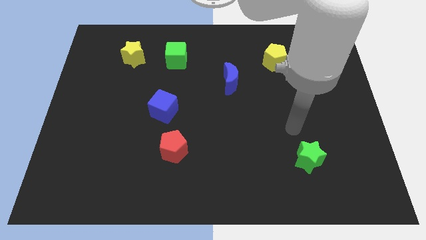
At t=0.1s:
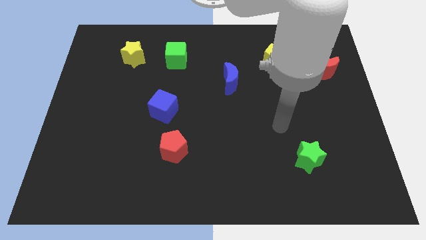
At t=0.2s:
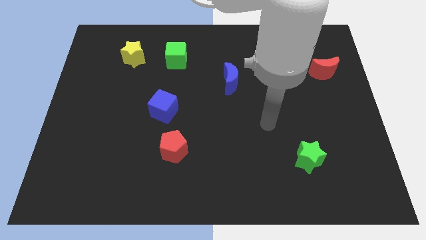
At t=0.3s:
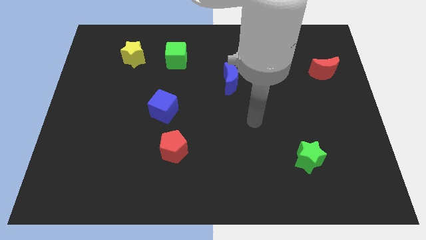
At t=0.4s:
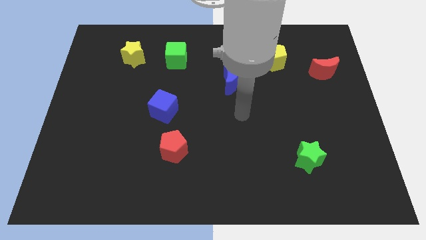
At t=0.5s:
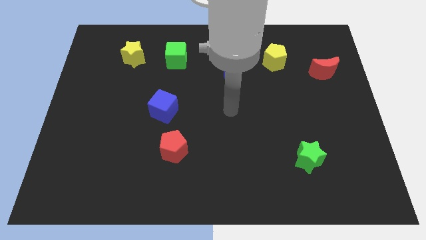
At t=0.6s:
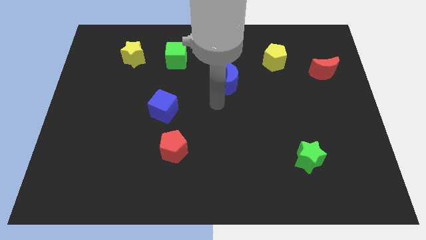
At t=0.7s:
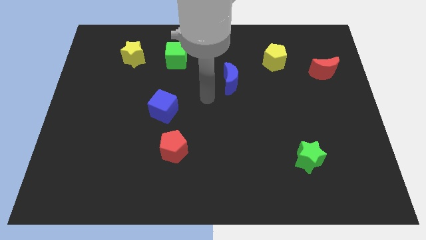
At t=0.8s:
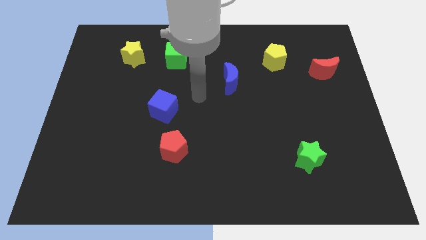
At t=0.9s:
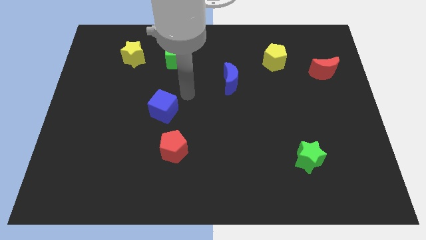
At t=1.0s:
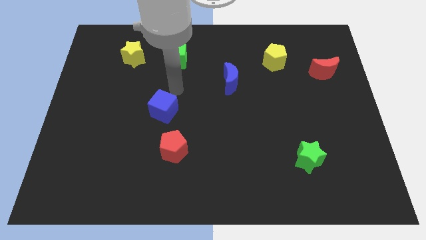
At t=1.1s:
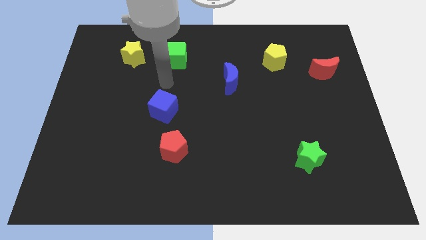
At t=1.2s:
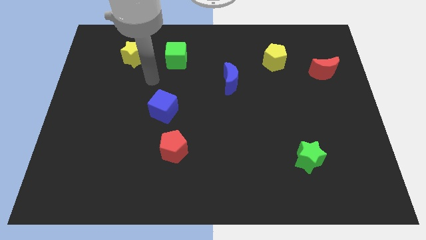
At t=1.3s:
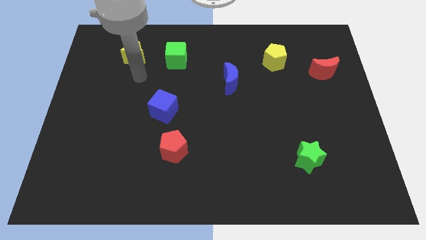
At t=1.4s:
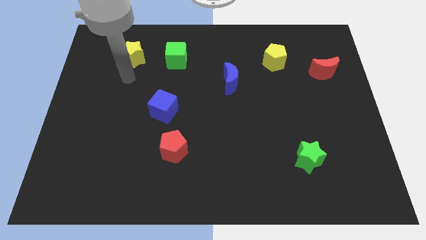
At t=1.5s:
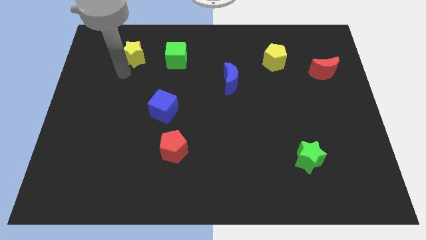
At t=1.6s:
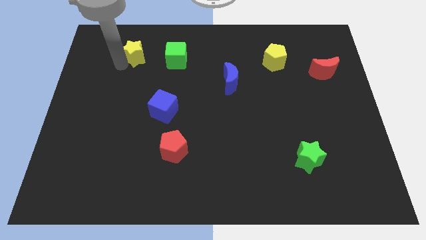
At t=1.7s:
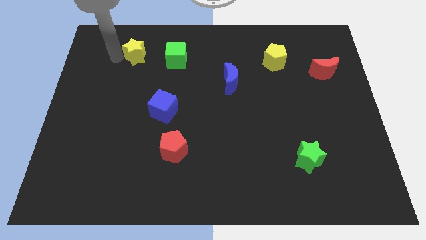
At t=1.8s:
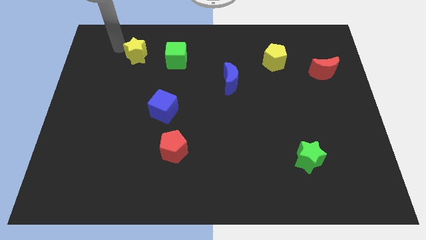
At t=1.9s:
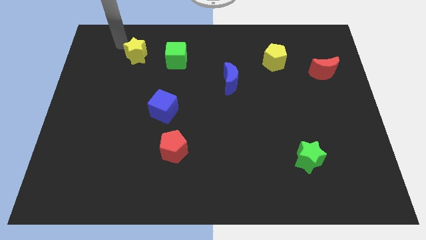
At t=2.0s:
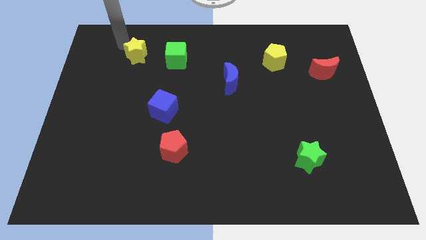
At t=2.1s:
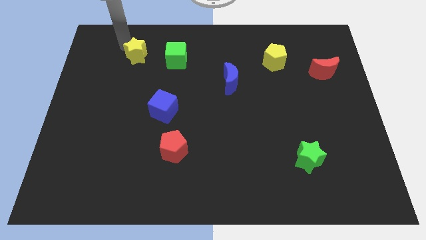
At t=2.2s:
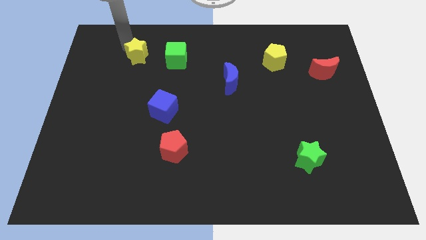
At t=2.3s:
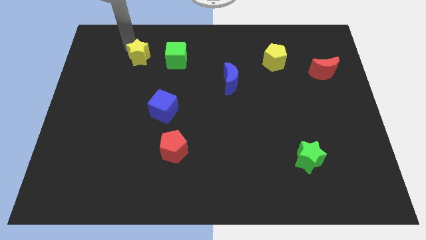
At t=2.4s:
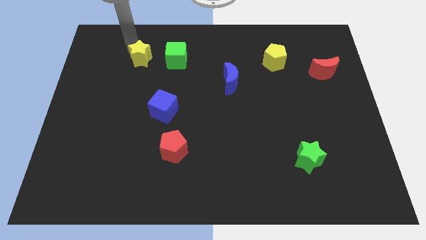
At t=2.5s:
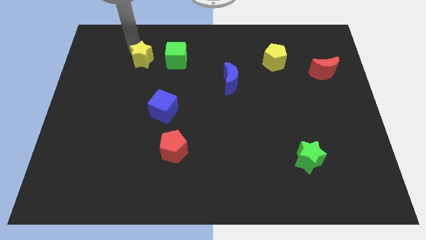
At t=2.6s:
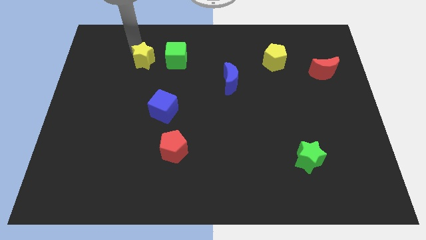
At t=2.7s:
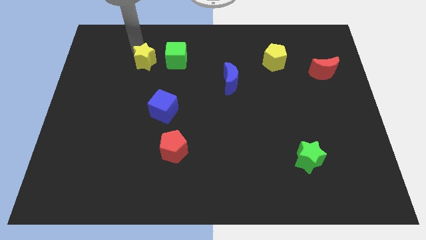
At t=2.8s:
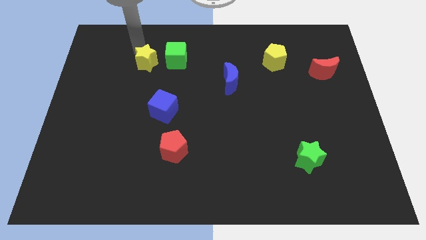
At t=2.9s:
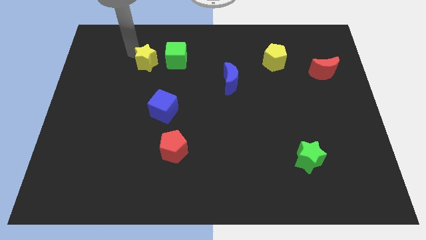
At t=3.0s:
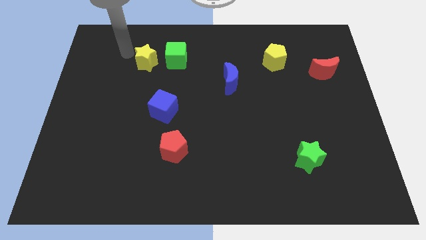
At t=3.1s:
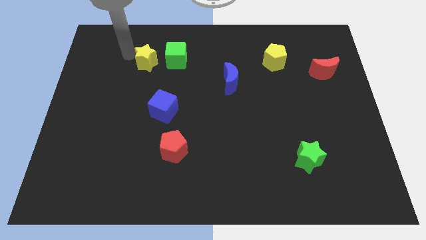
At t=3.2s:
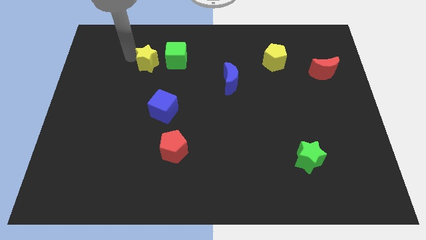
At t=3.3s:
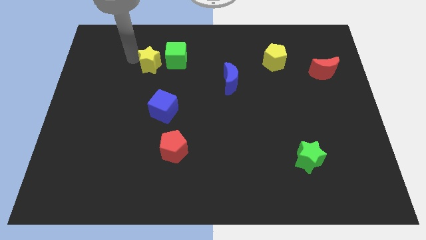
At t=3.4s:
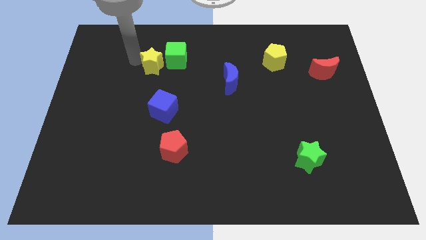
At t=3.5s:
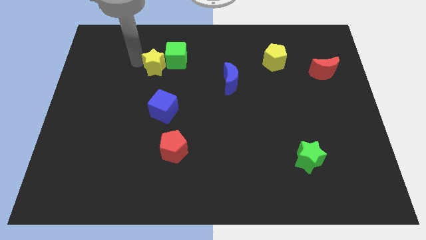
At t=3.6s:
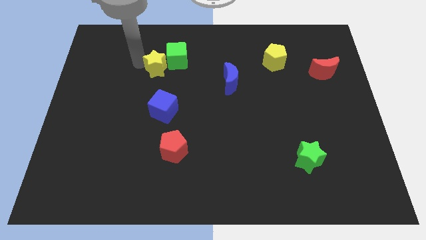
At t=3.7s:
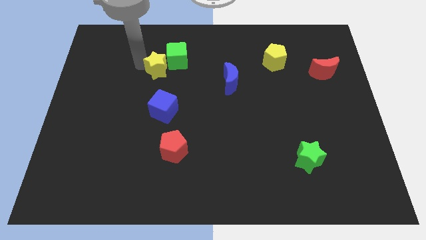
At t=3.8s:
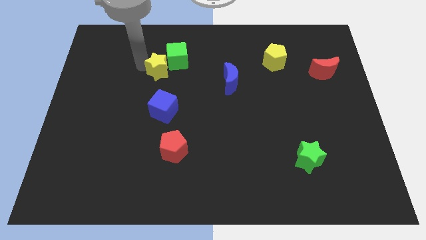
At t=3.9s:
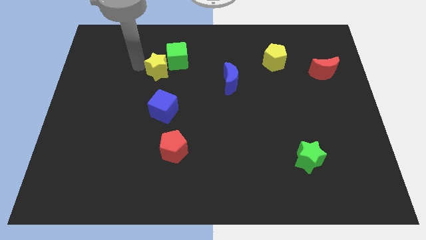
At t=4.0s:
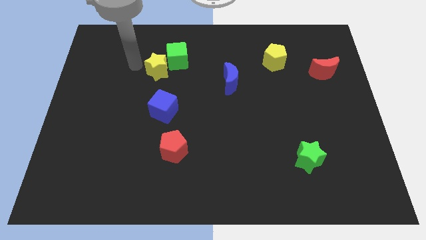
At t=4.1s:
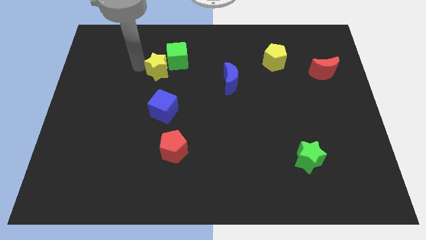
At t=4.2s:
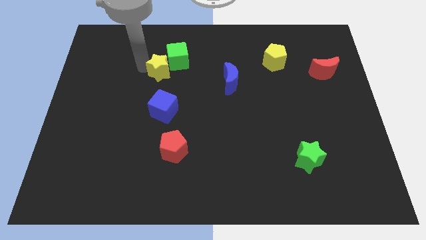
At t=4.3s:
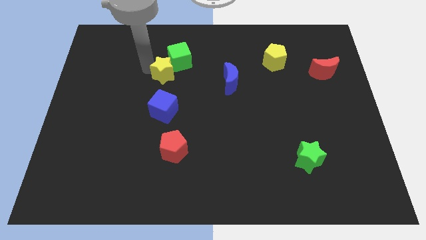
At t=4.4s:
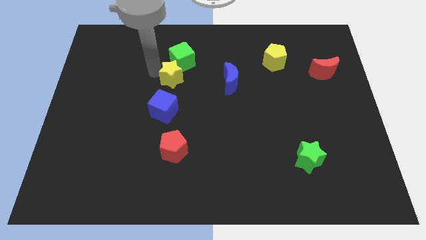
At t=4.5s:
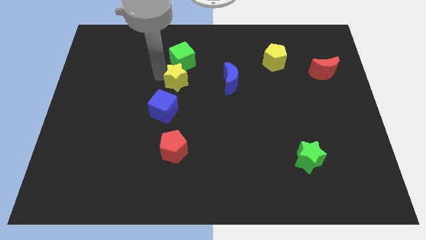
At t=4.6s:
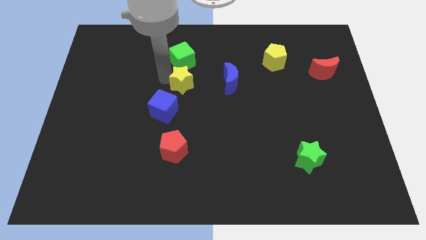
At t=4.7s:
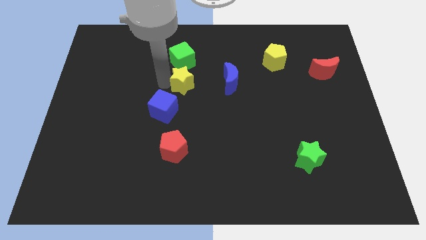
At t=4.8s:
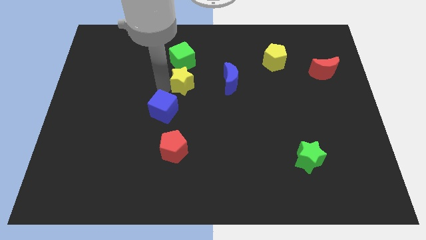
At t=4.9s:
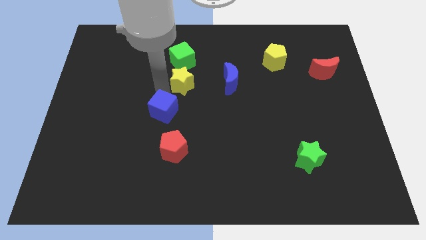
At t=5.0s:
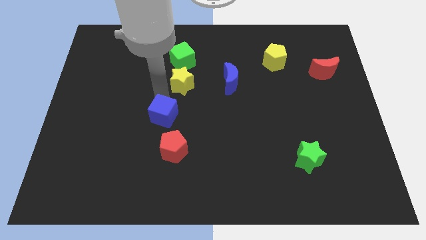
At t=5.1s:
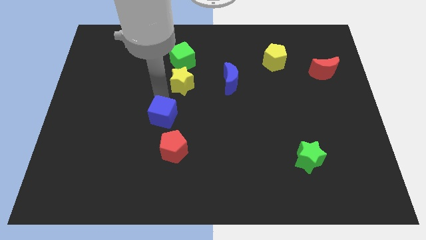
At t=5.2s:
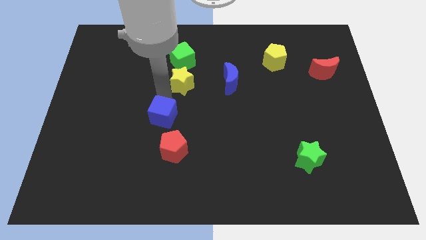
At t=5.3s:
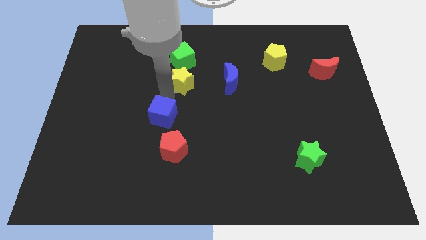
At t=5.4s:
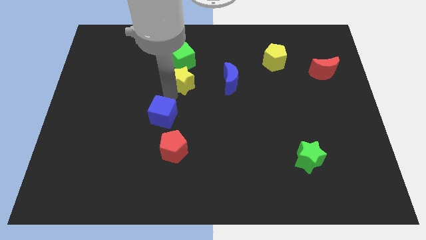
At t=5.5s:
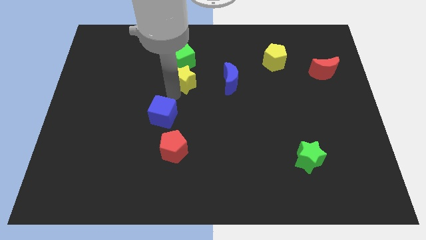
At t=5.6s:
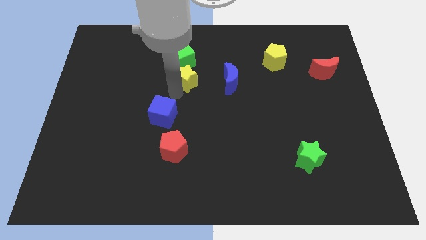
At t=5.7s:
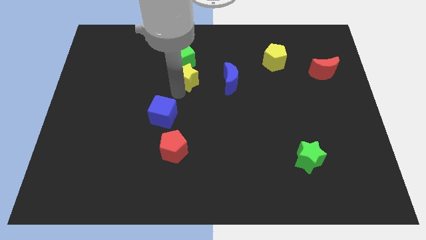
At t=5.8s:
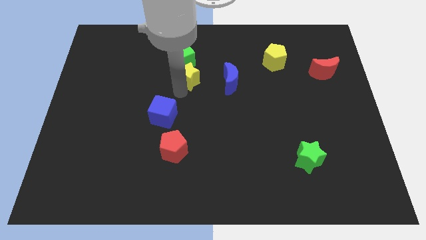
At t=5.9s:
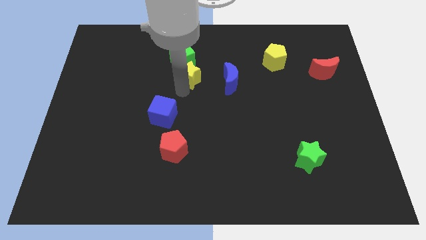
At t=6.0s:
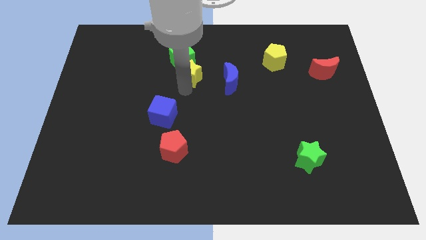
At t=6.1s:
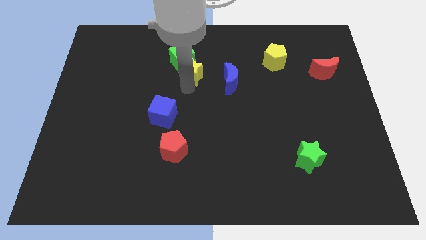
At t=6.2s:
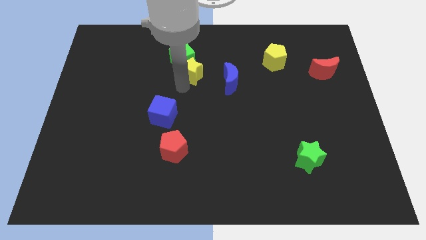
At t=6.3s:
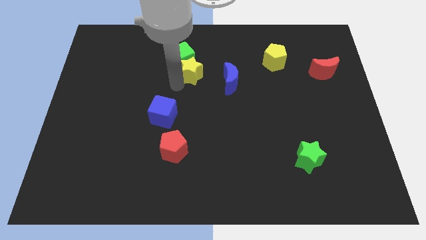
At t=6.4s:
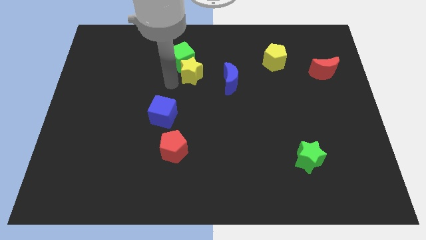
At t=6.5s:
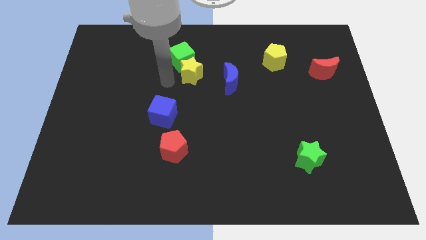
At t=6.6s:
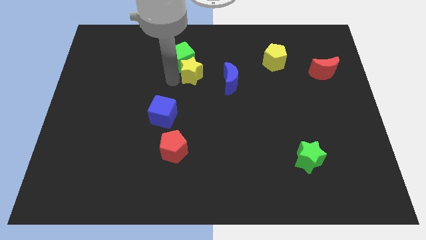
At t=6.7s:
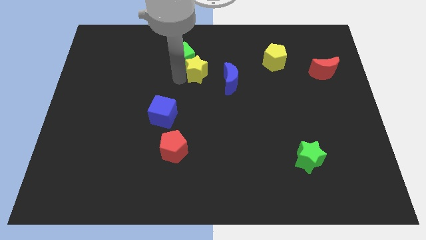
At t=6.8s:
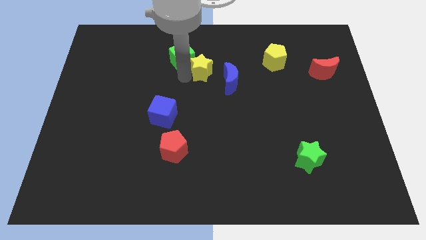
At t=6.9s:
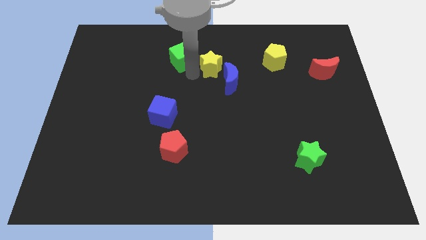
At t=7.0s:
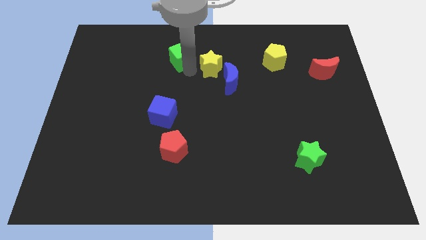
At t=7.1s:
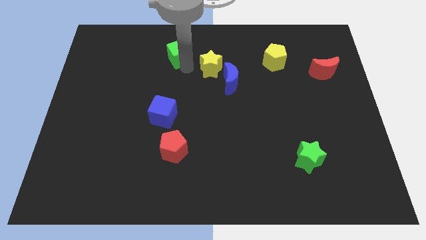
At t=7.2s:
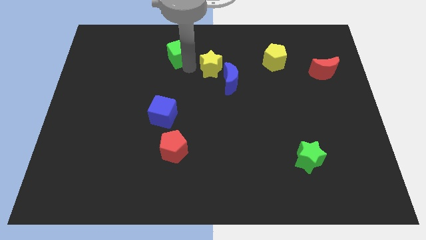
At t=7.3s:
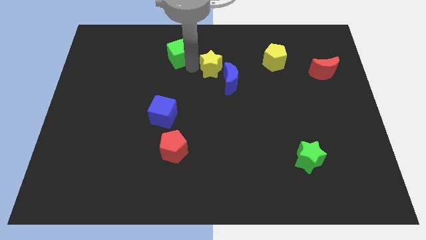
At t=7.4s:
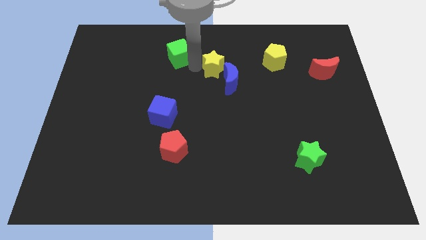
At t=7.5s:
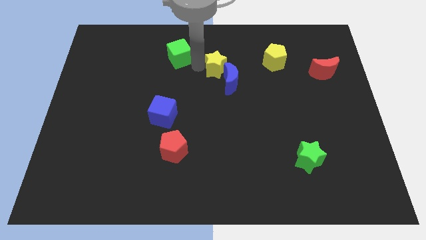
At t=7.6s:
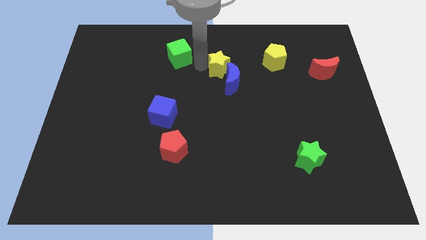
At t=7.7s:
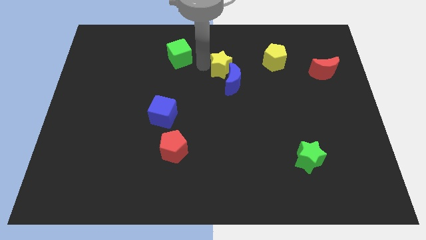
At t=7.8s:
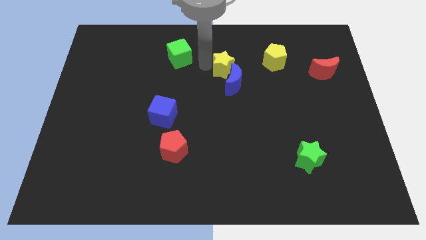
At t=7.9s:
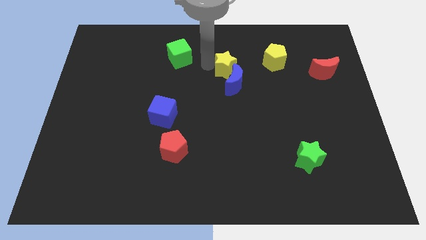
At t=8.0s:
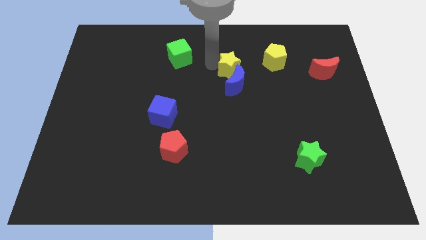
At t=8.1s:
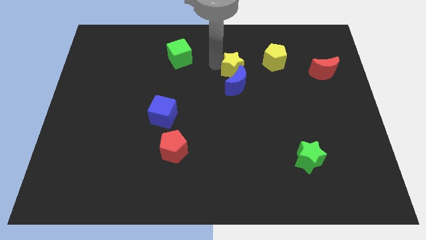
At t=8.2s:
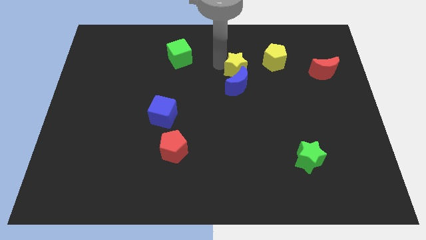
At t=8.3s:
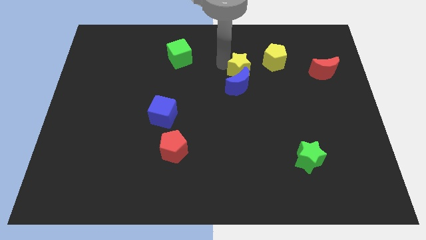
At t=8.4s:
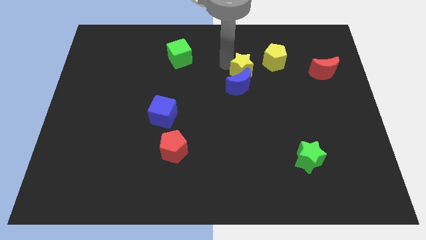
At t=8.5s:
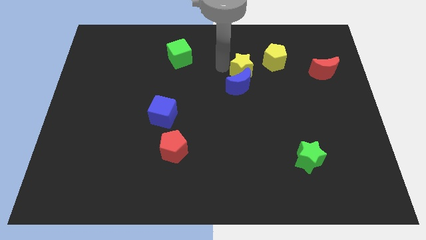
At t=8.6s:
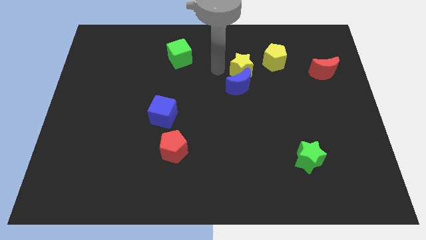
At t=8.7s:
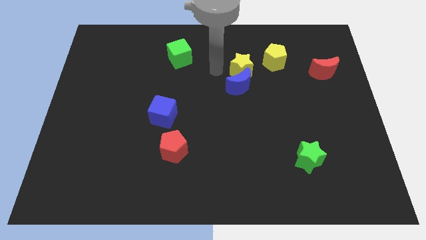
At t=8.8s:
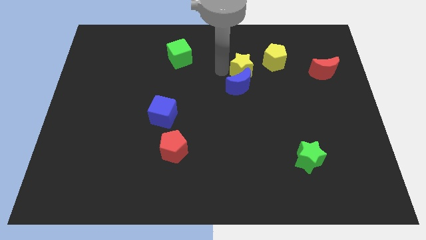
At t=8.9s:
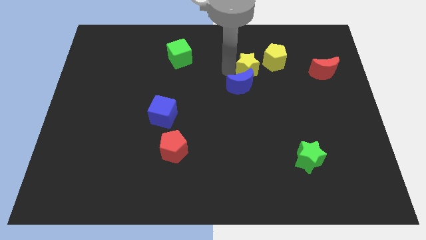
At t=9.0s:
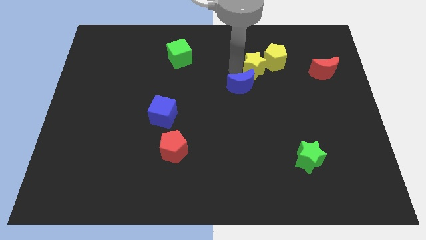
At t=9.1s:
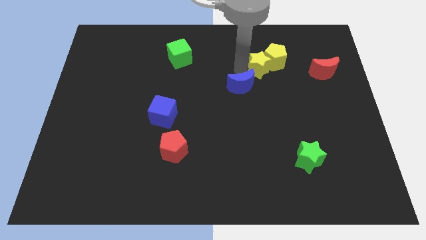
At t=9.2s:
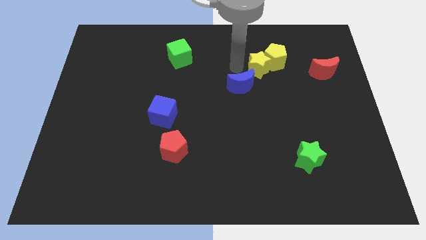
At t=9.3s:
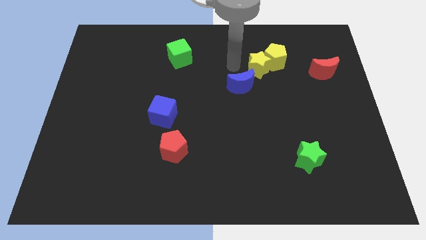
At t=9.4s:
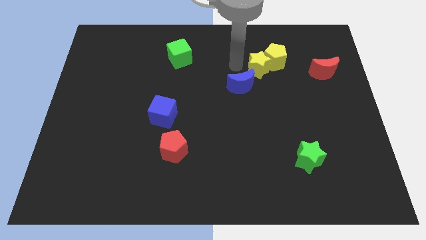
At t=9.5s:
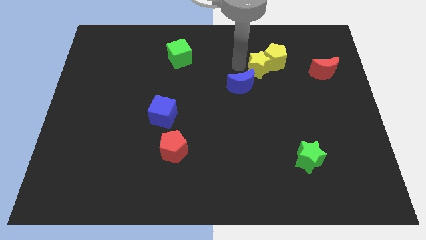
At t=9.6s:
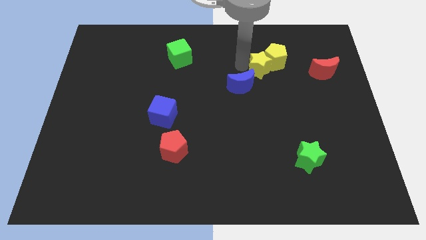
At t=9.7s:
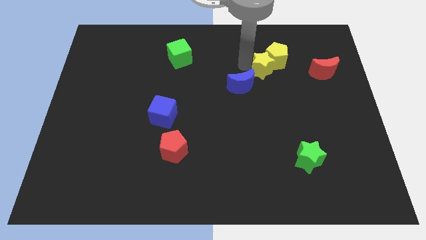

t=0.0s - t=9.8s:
put the yellow star to the left side of the red moon
